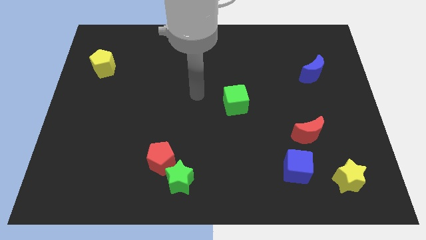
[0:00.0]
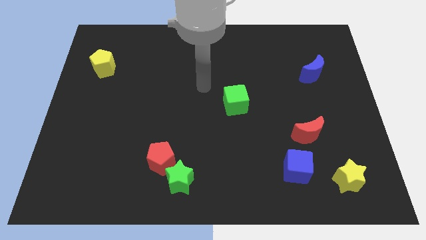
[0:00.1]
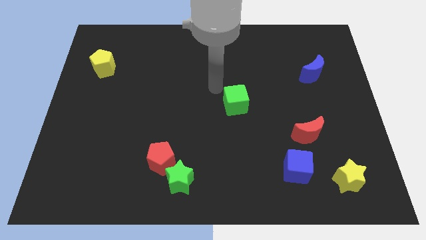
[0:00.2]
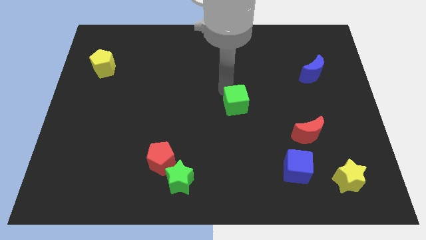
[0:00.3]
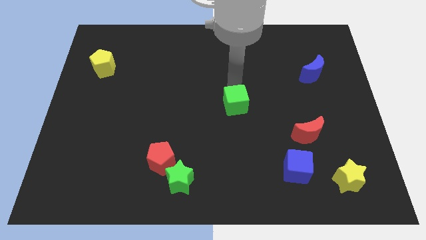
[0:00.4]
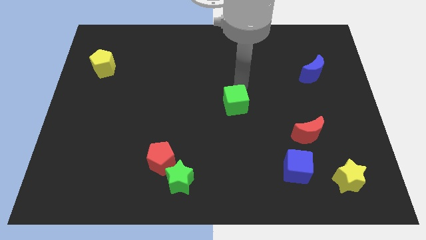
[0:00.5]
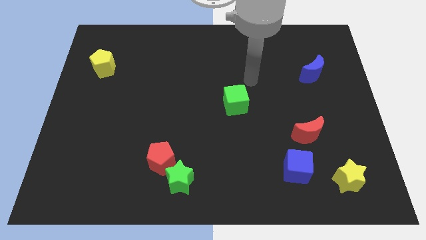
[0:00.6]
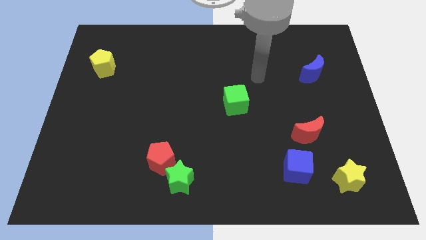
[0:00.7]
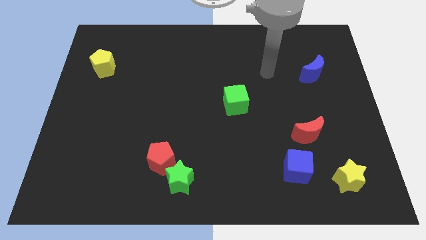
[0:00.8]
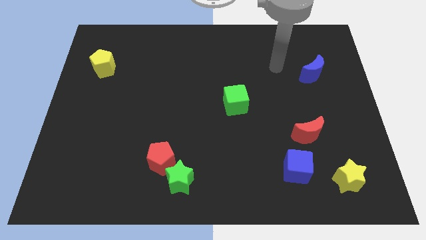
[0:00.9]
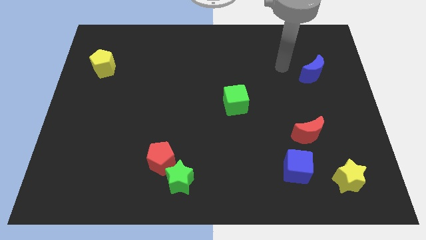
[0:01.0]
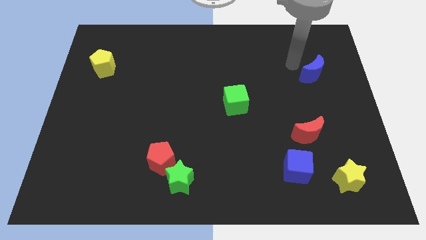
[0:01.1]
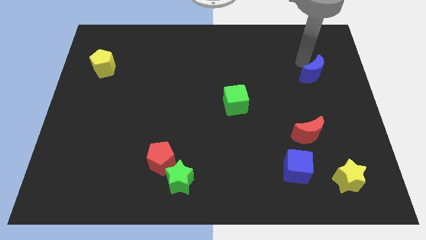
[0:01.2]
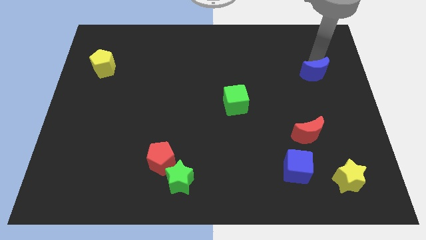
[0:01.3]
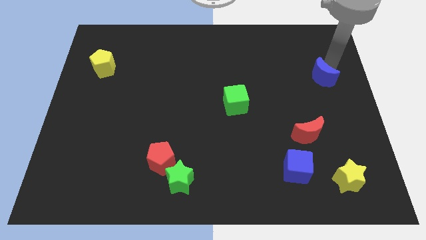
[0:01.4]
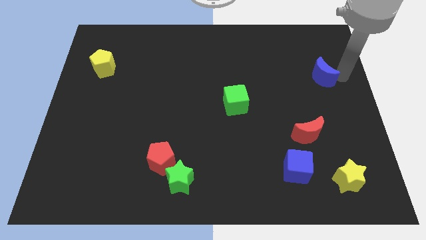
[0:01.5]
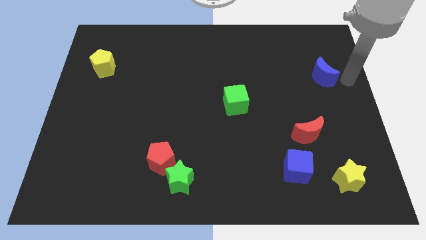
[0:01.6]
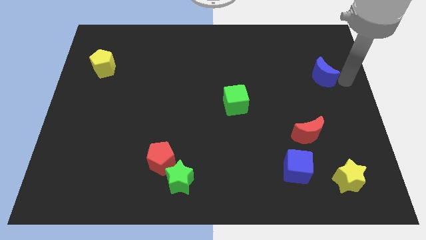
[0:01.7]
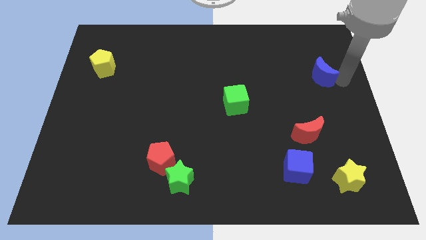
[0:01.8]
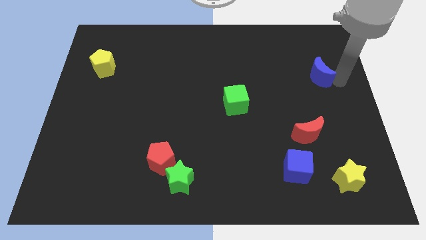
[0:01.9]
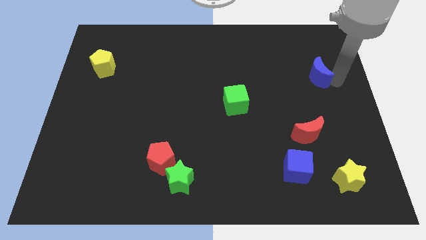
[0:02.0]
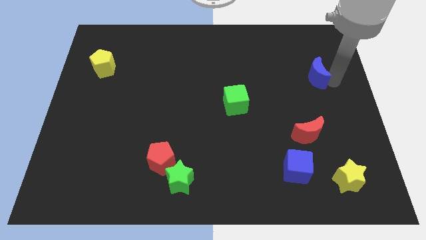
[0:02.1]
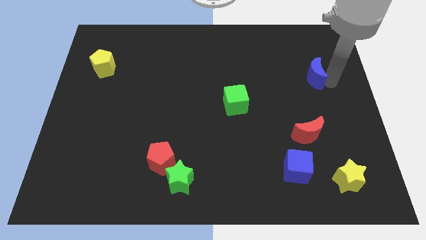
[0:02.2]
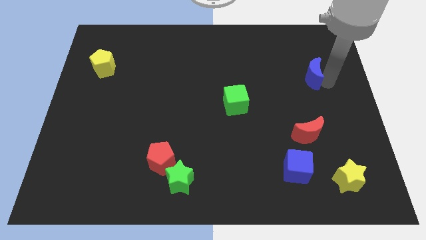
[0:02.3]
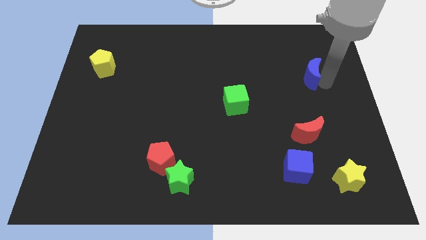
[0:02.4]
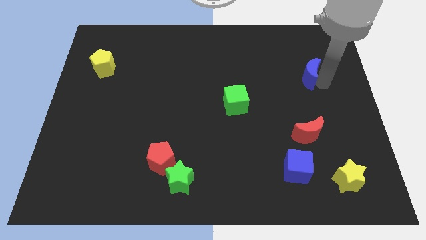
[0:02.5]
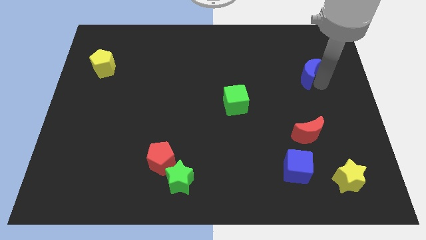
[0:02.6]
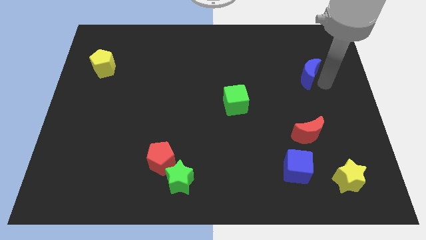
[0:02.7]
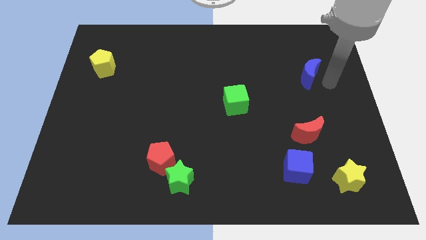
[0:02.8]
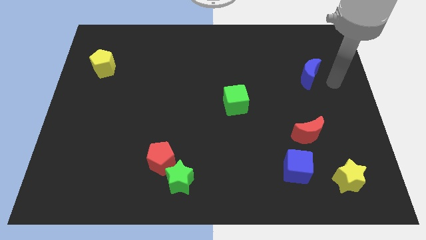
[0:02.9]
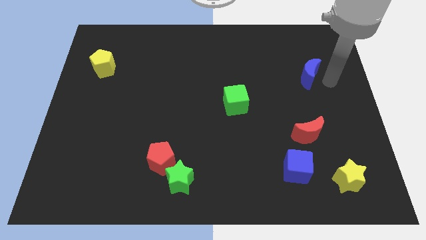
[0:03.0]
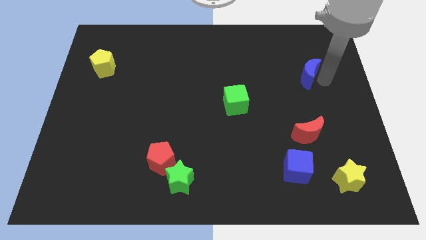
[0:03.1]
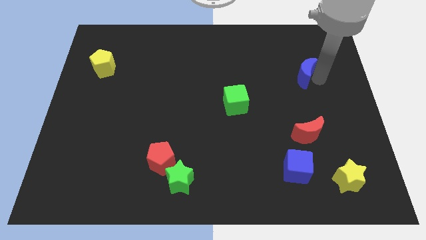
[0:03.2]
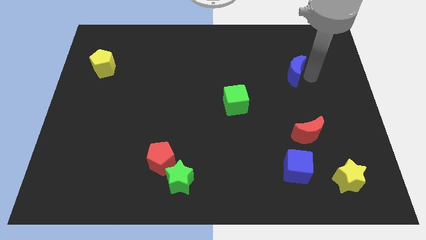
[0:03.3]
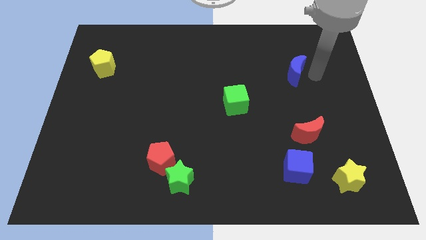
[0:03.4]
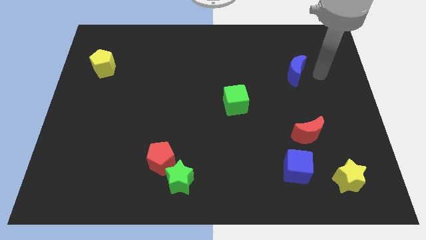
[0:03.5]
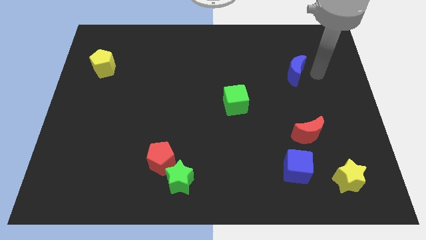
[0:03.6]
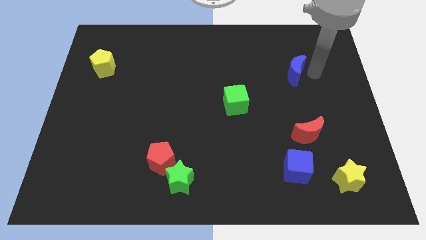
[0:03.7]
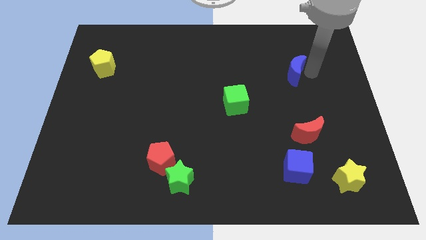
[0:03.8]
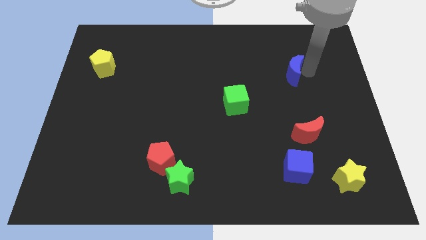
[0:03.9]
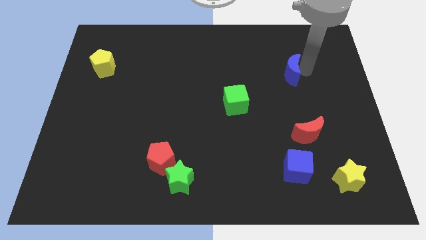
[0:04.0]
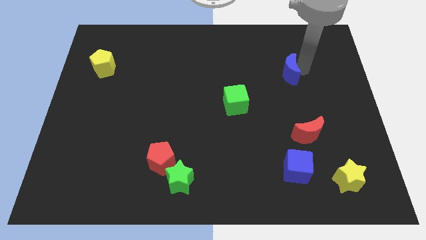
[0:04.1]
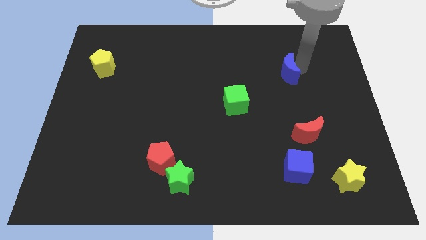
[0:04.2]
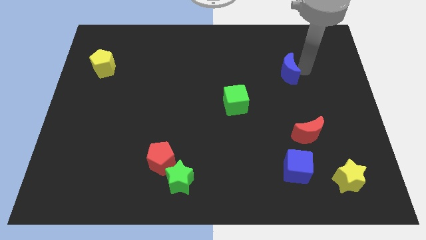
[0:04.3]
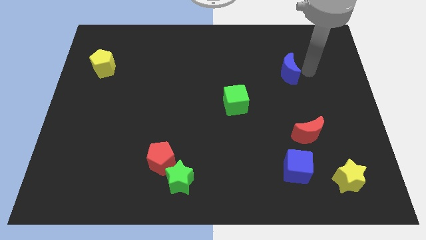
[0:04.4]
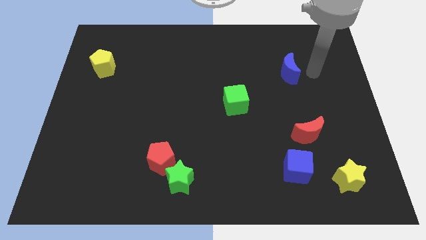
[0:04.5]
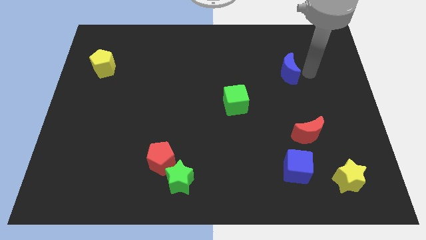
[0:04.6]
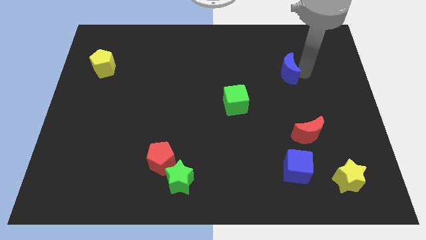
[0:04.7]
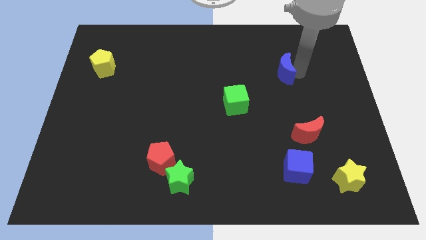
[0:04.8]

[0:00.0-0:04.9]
push the blue moon left a little bit

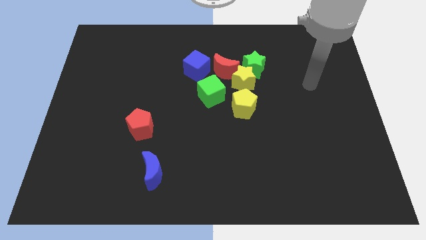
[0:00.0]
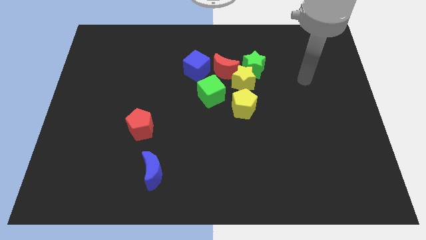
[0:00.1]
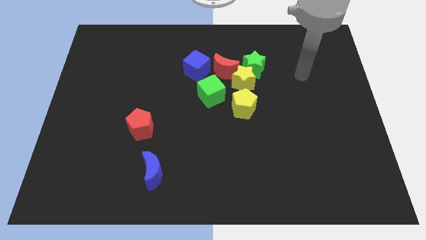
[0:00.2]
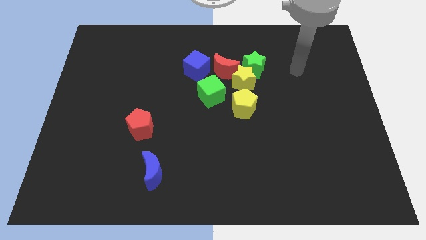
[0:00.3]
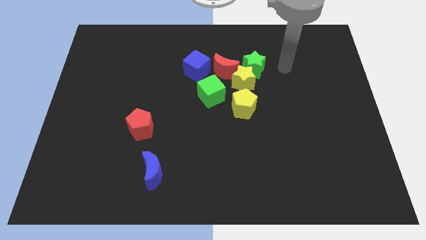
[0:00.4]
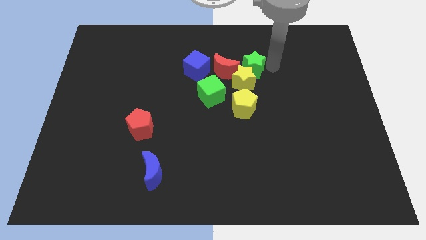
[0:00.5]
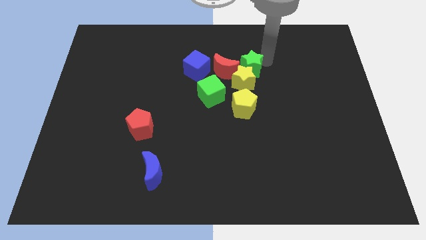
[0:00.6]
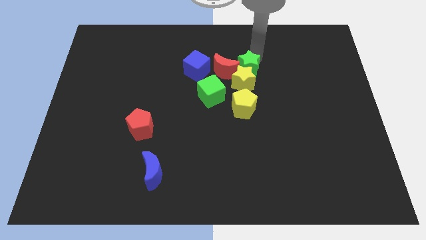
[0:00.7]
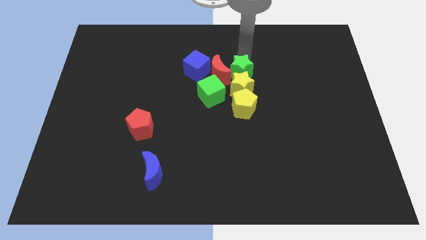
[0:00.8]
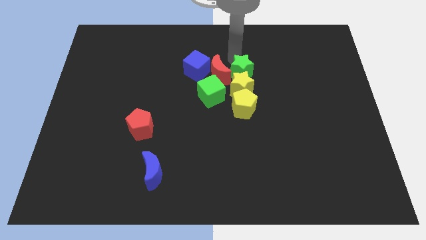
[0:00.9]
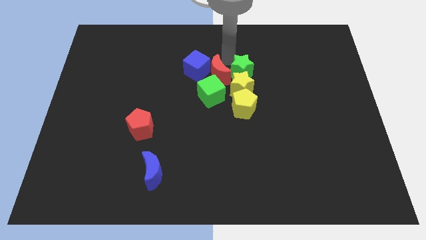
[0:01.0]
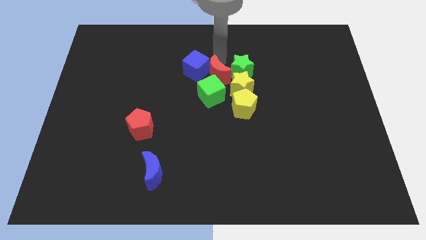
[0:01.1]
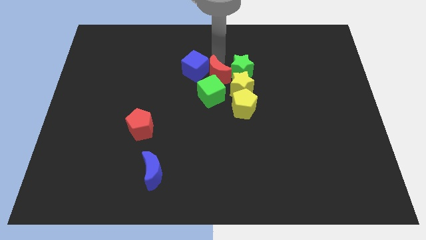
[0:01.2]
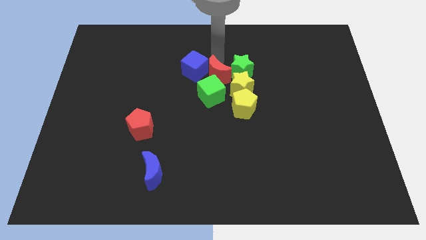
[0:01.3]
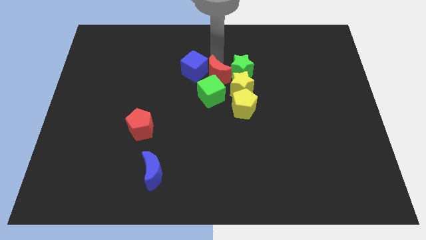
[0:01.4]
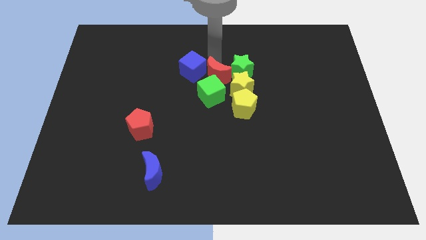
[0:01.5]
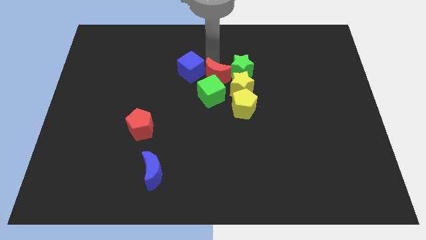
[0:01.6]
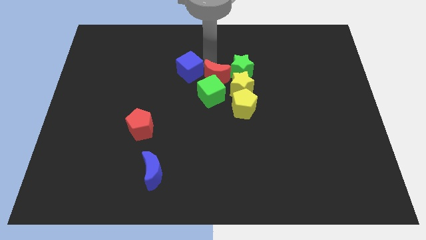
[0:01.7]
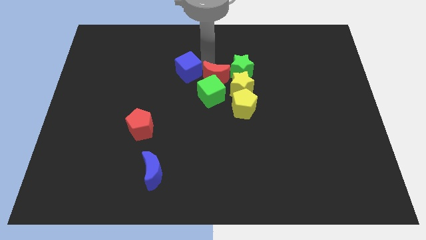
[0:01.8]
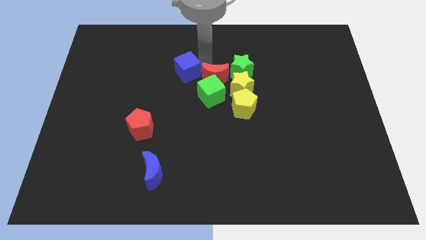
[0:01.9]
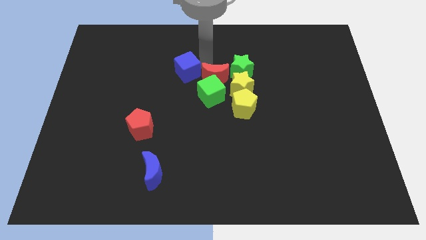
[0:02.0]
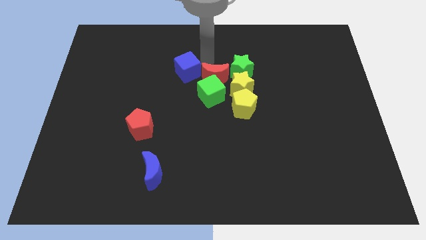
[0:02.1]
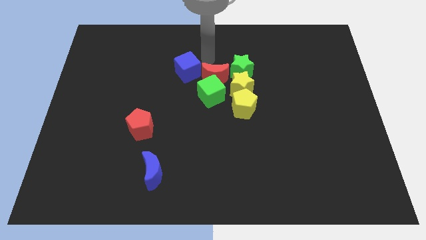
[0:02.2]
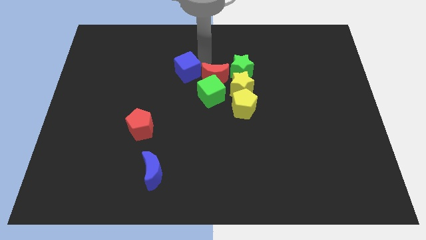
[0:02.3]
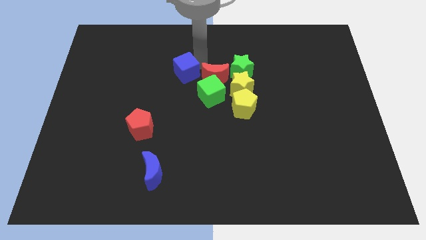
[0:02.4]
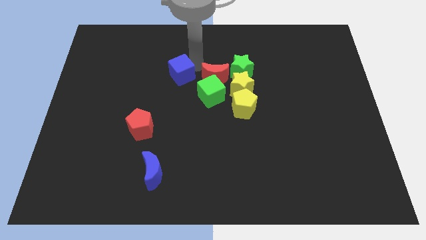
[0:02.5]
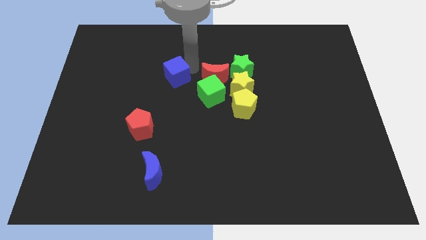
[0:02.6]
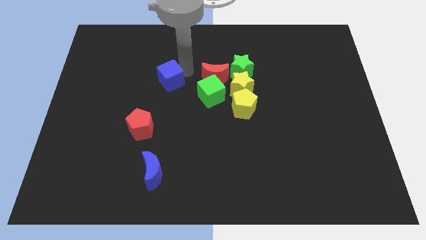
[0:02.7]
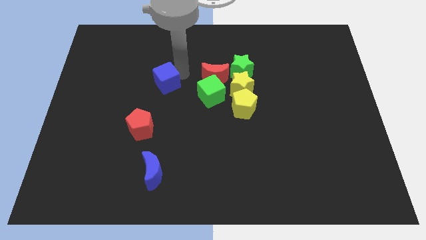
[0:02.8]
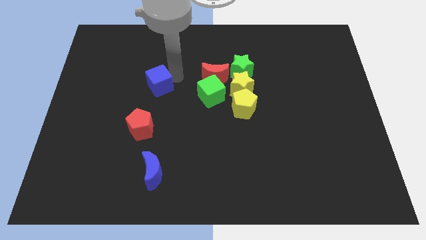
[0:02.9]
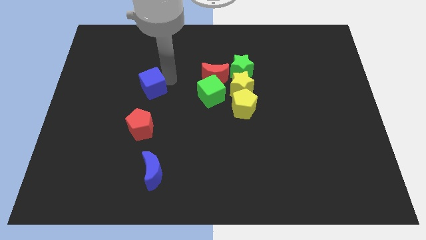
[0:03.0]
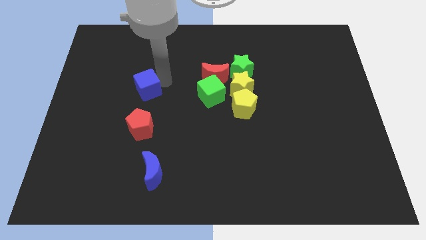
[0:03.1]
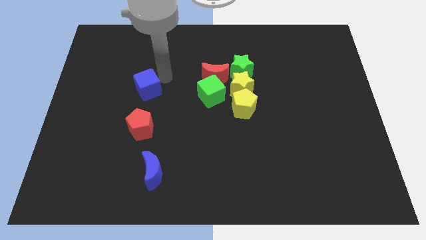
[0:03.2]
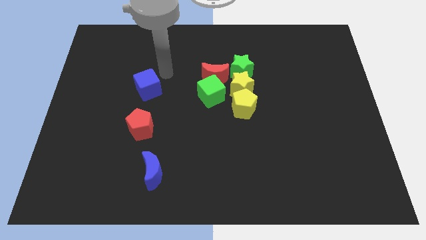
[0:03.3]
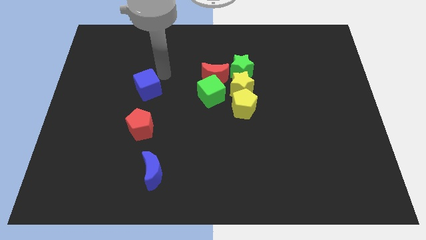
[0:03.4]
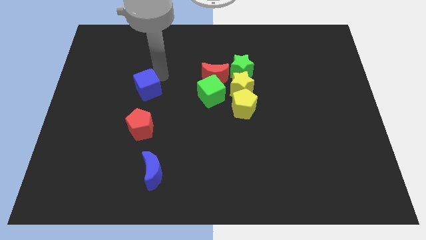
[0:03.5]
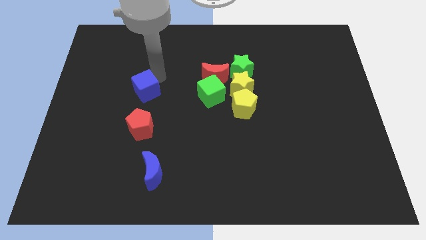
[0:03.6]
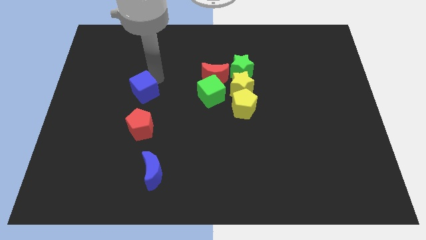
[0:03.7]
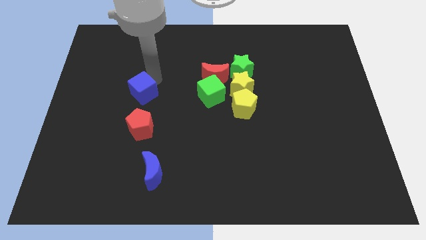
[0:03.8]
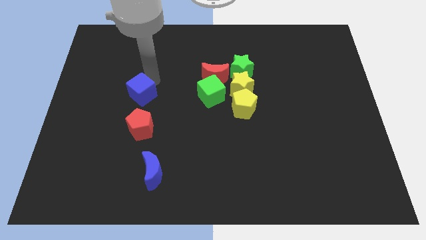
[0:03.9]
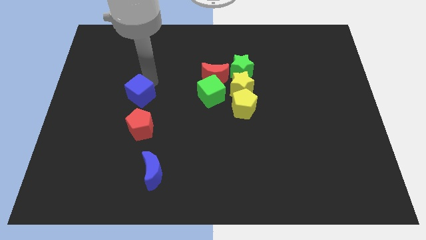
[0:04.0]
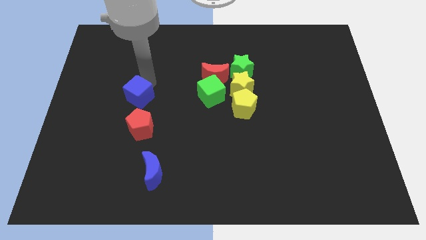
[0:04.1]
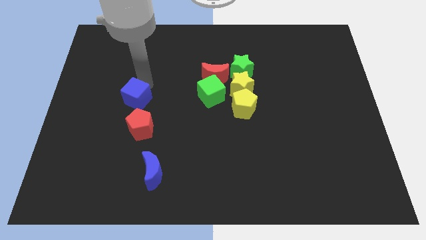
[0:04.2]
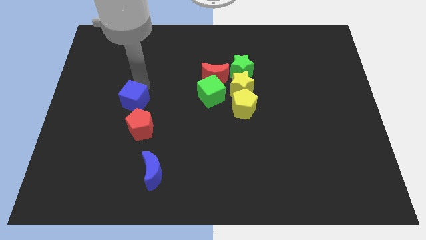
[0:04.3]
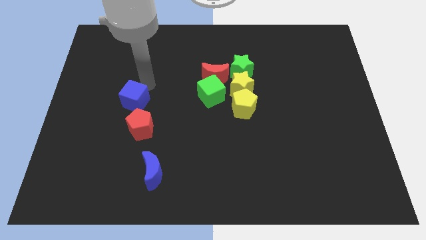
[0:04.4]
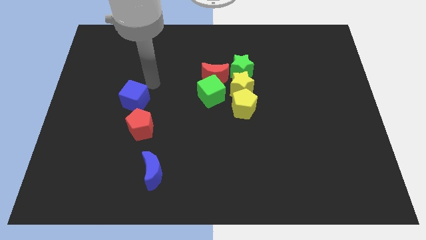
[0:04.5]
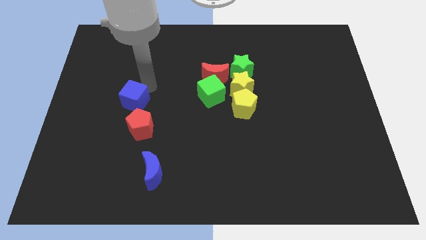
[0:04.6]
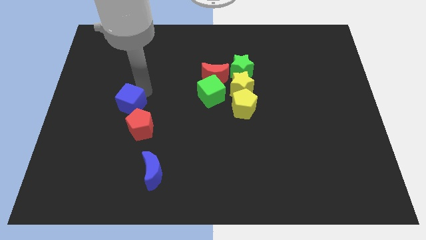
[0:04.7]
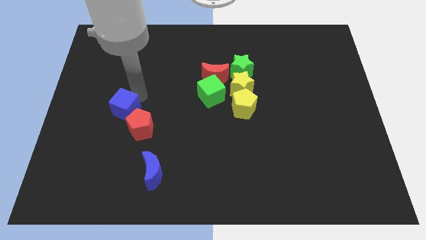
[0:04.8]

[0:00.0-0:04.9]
slide the blue cube downwards and then left
